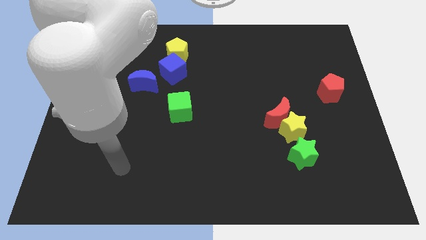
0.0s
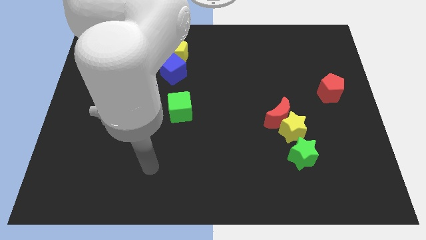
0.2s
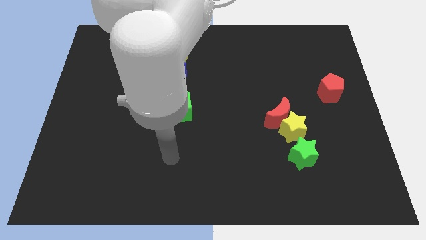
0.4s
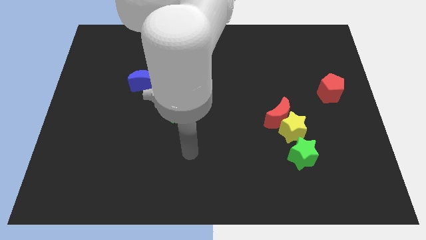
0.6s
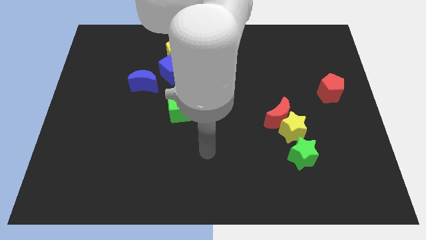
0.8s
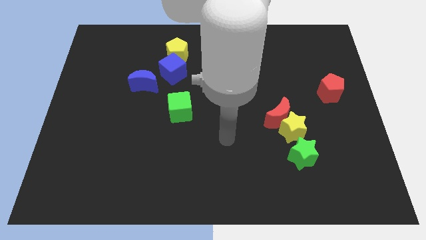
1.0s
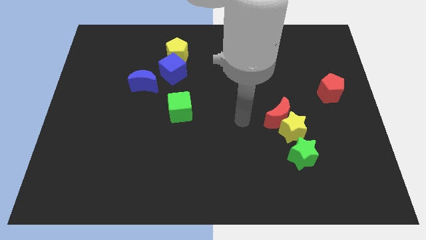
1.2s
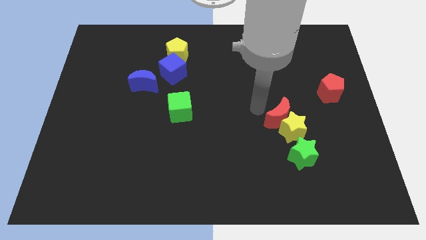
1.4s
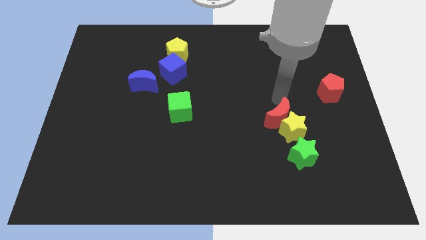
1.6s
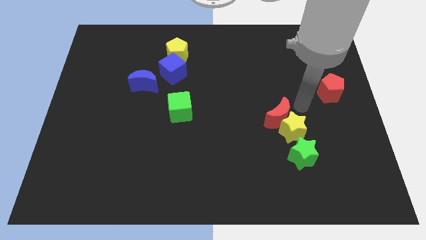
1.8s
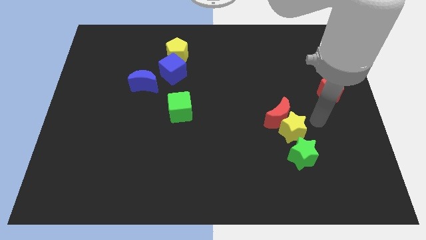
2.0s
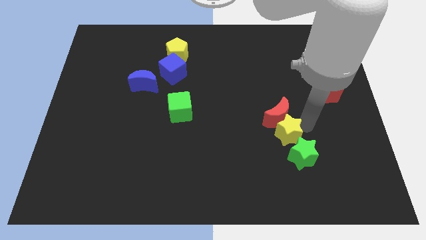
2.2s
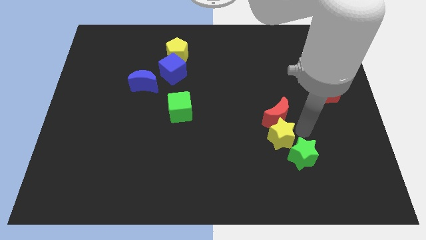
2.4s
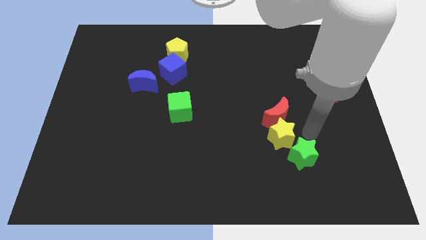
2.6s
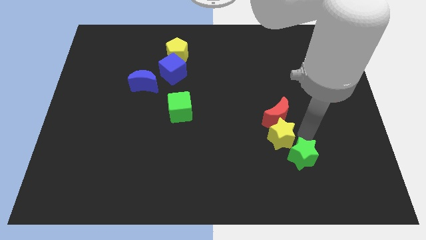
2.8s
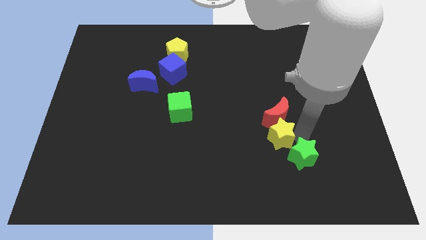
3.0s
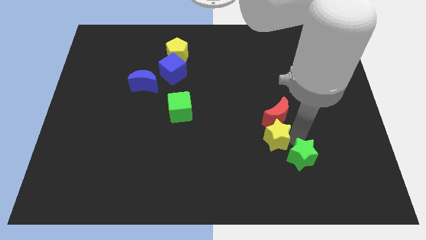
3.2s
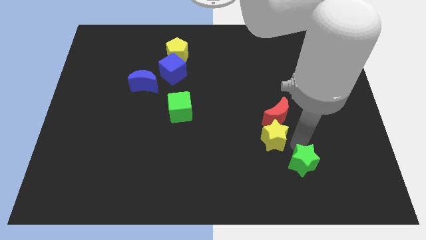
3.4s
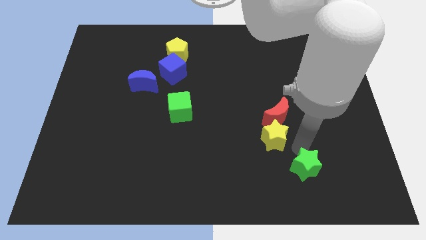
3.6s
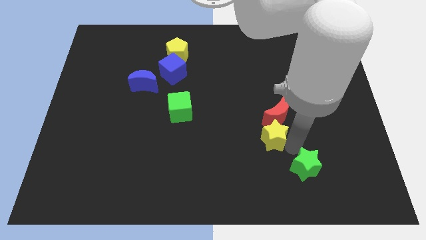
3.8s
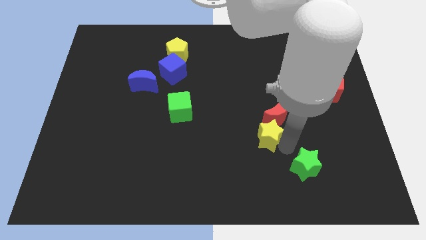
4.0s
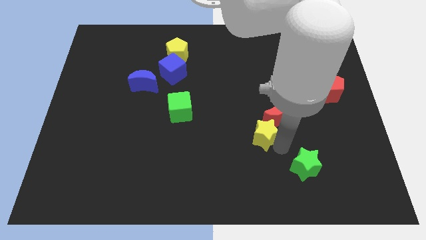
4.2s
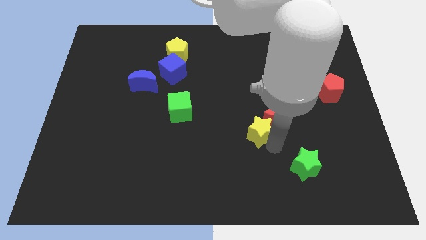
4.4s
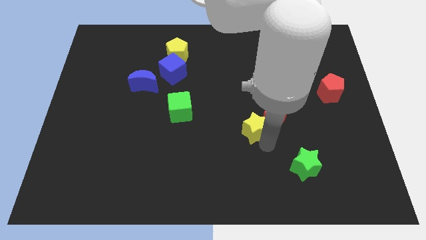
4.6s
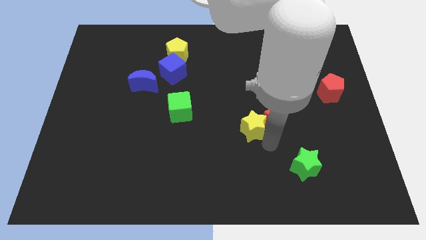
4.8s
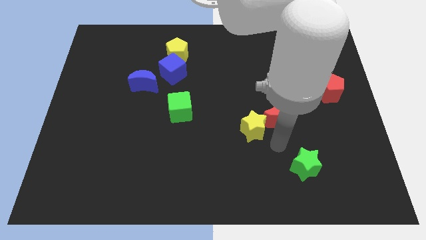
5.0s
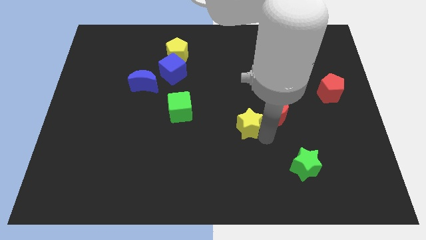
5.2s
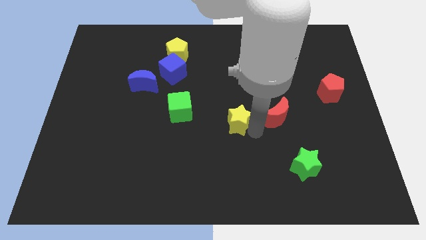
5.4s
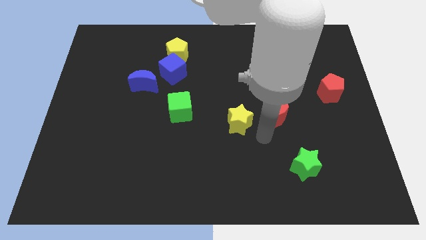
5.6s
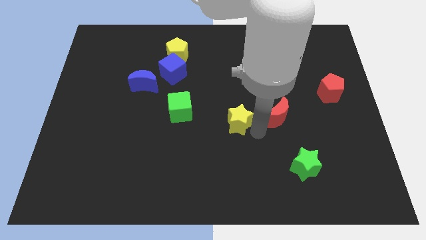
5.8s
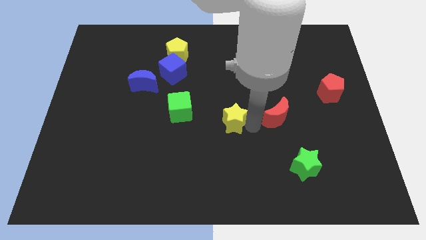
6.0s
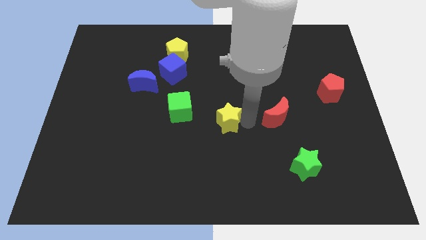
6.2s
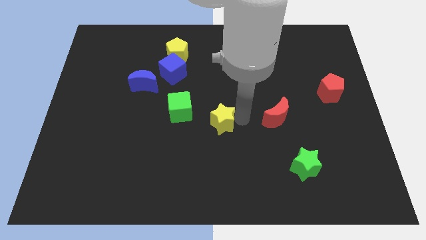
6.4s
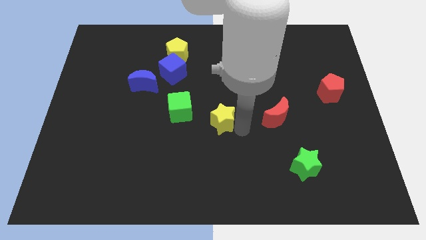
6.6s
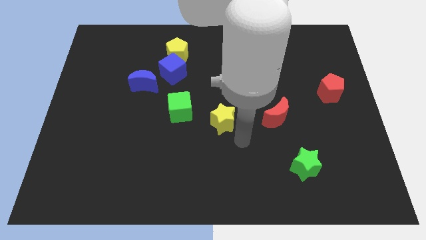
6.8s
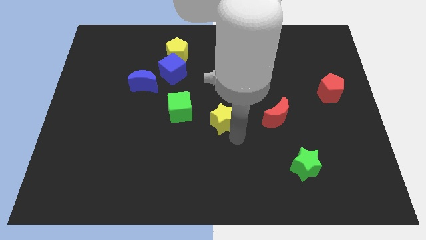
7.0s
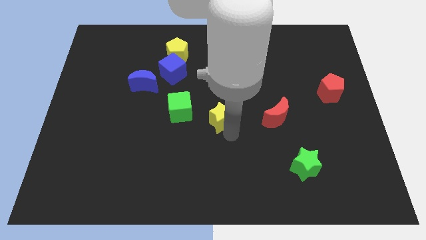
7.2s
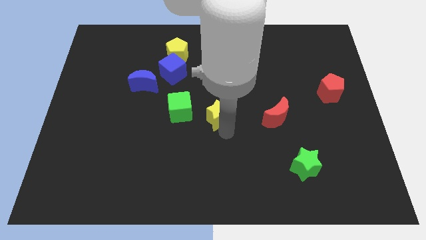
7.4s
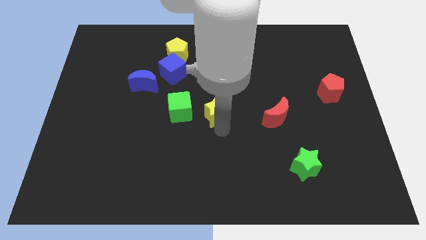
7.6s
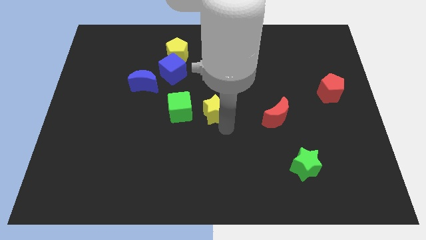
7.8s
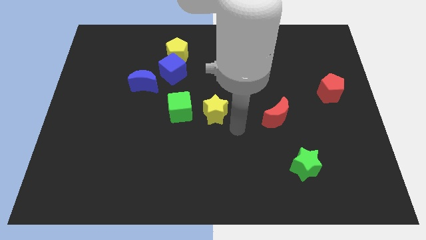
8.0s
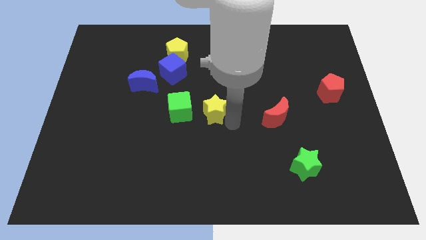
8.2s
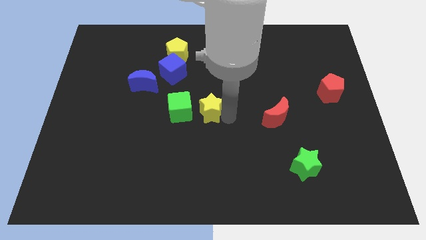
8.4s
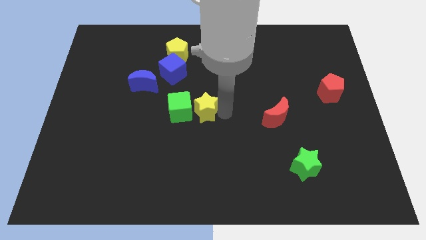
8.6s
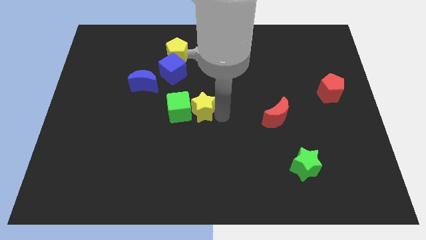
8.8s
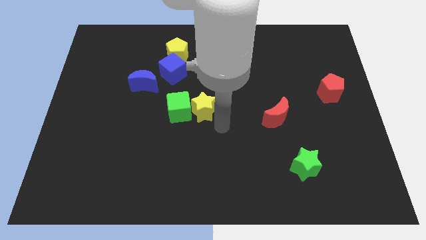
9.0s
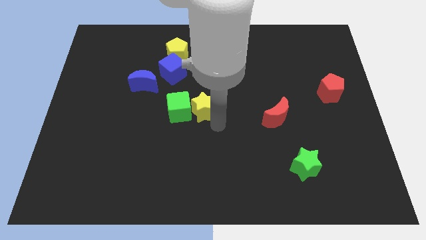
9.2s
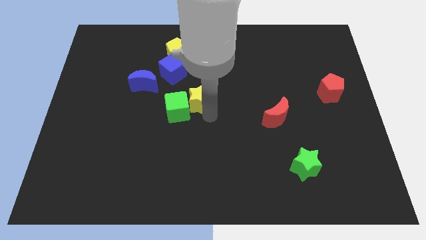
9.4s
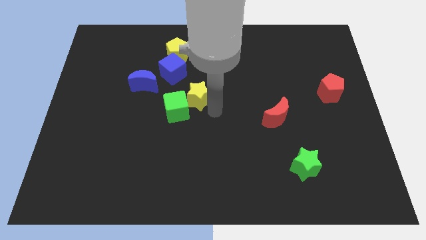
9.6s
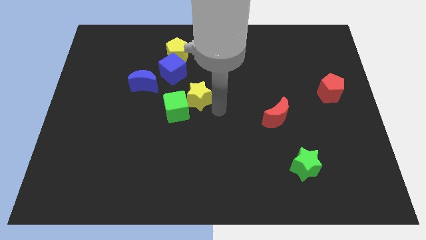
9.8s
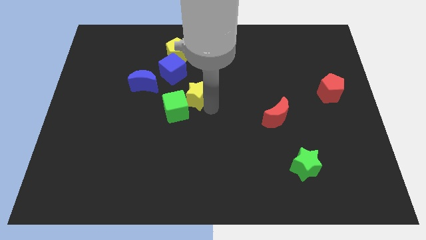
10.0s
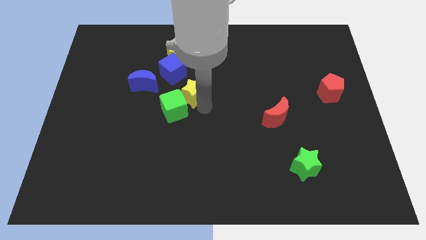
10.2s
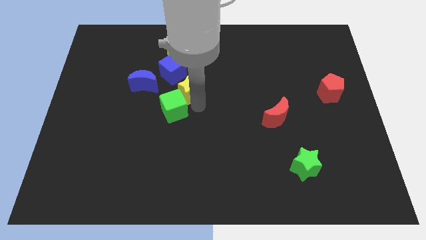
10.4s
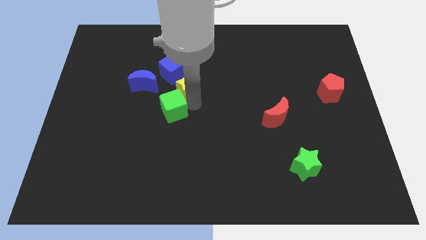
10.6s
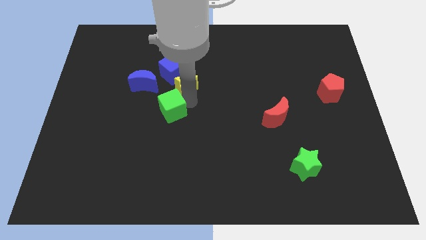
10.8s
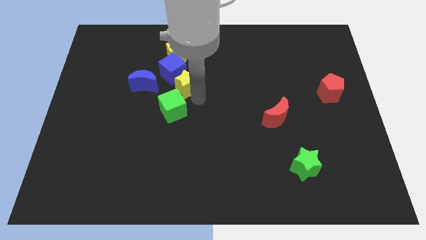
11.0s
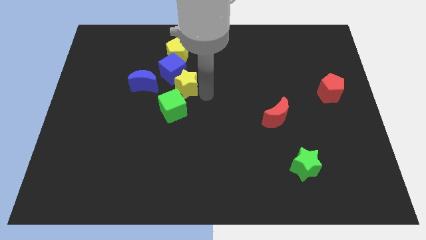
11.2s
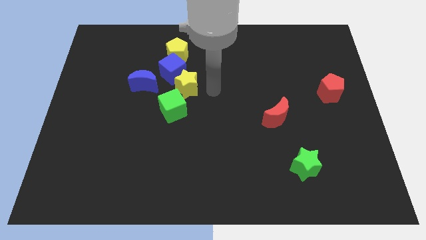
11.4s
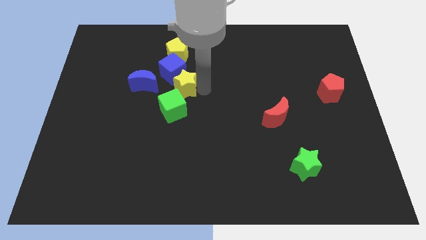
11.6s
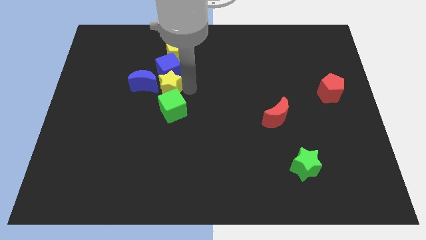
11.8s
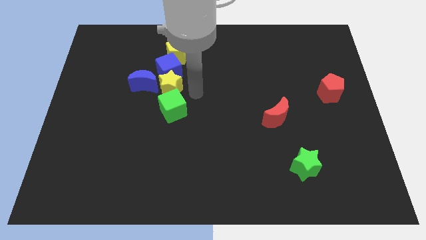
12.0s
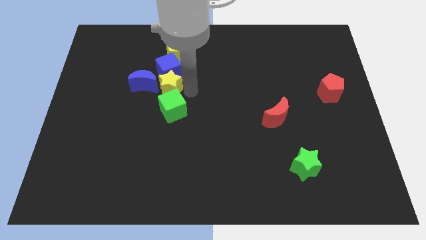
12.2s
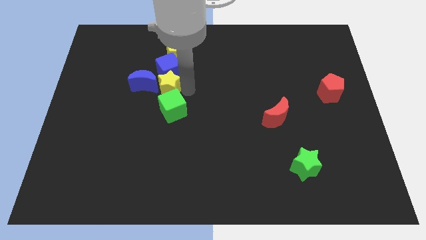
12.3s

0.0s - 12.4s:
put the yellow star close to the blue moon

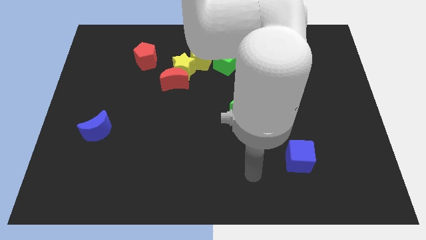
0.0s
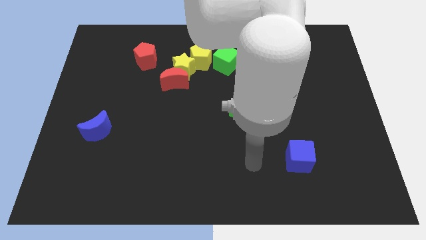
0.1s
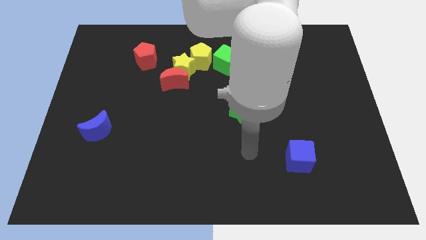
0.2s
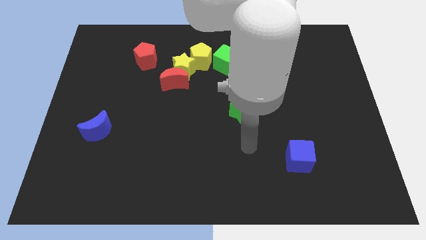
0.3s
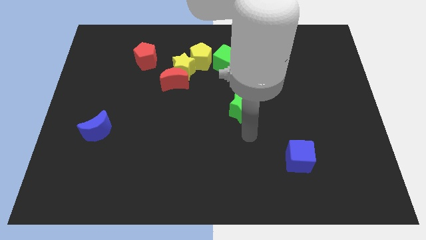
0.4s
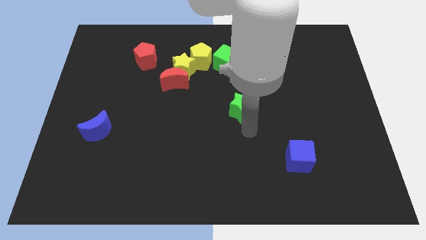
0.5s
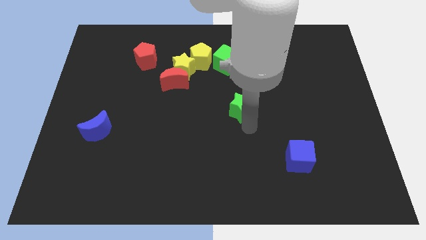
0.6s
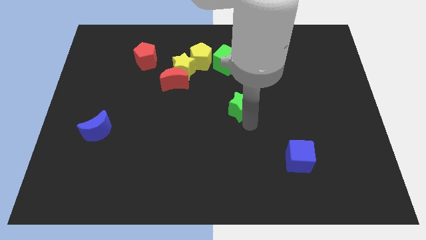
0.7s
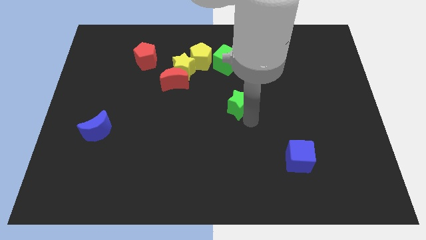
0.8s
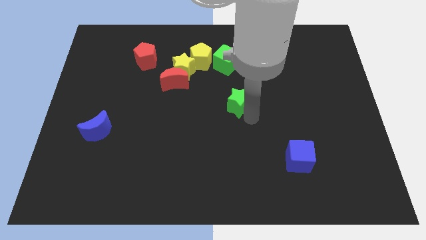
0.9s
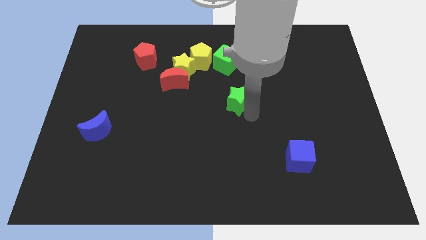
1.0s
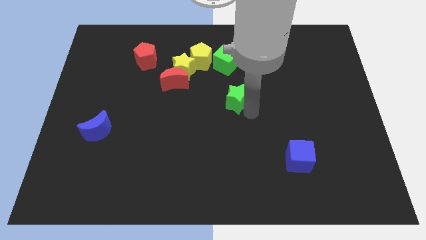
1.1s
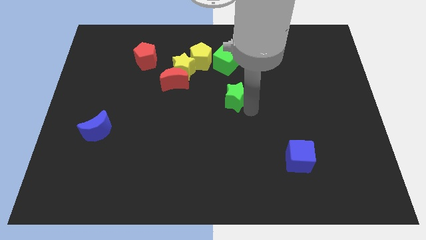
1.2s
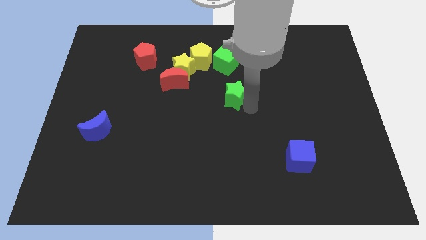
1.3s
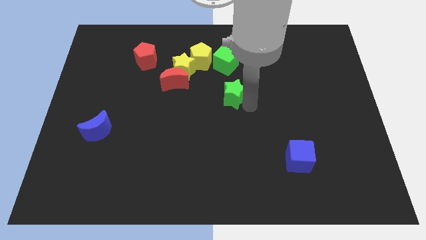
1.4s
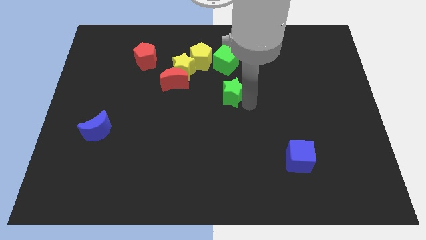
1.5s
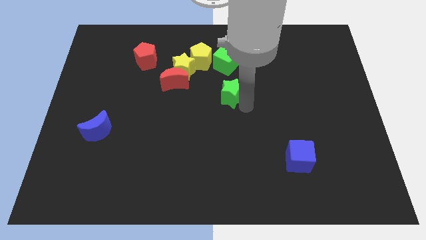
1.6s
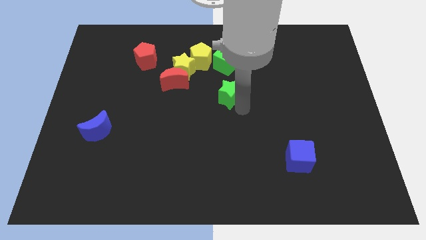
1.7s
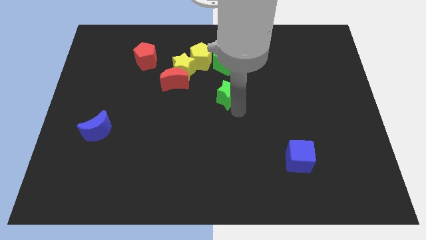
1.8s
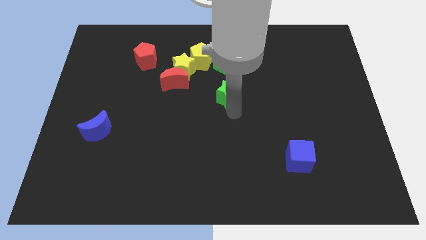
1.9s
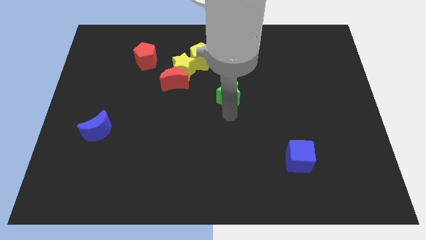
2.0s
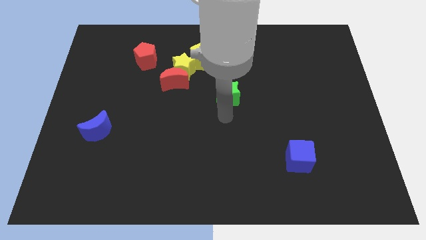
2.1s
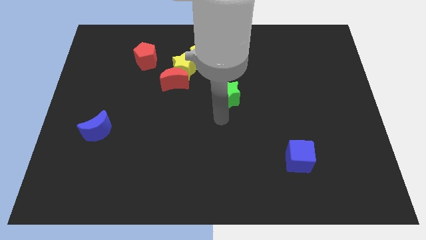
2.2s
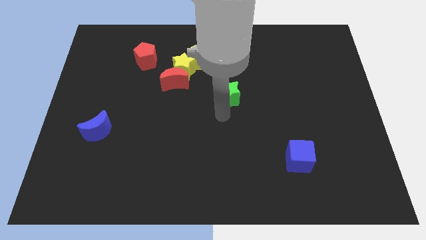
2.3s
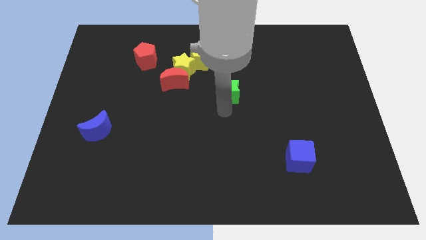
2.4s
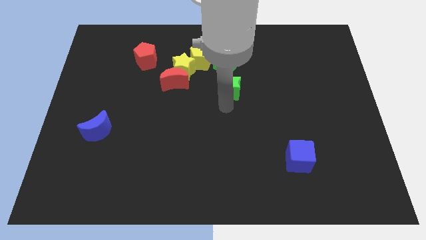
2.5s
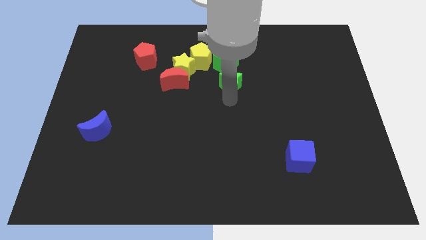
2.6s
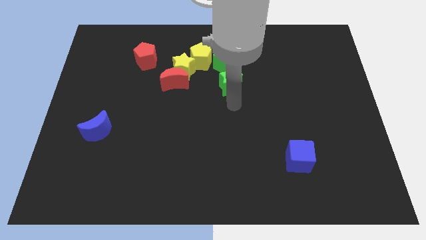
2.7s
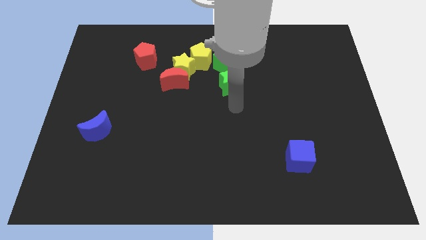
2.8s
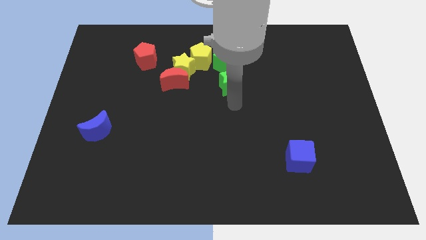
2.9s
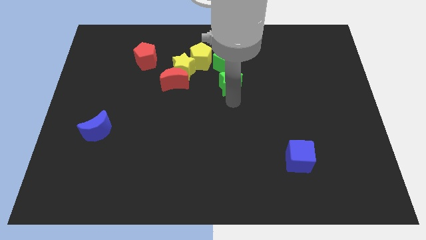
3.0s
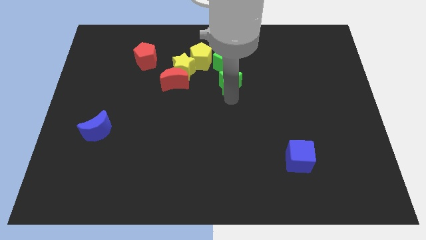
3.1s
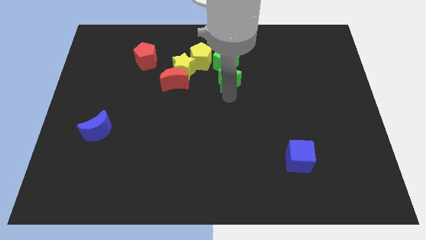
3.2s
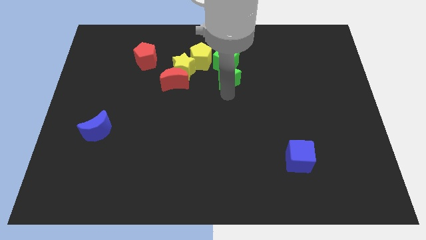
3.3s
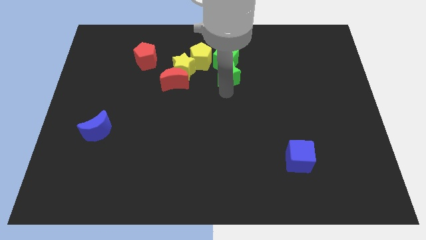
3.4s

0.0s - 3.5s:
push the green star to the green cube
